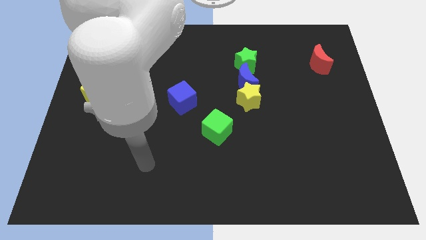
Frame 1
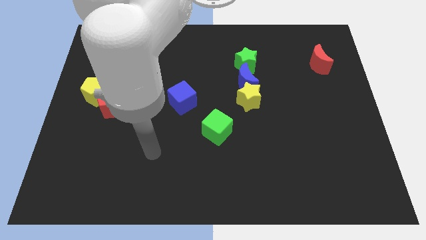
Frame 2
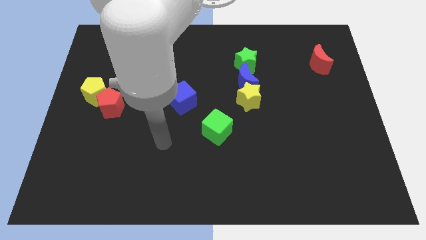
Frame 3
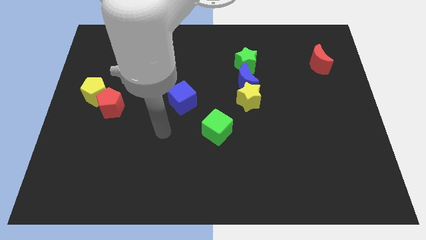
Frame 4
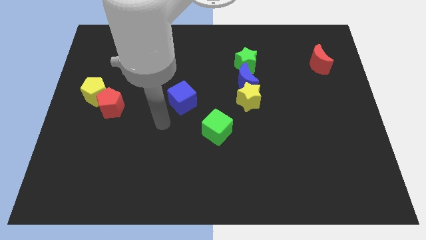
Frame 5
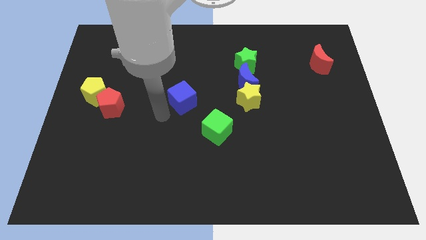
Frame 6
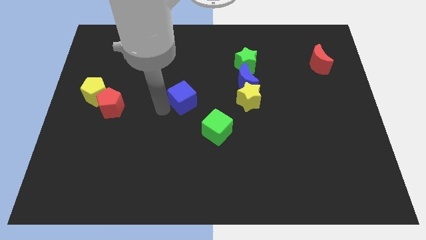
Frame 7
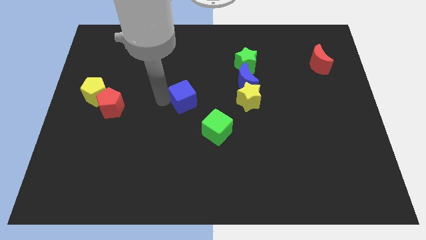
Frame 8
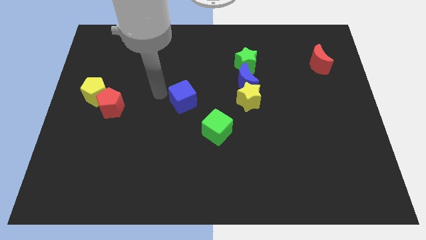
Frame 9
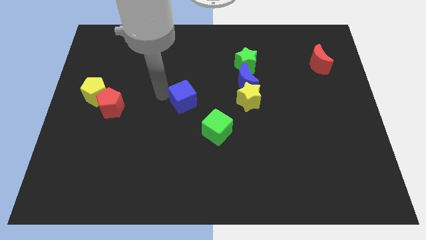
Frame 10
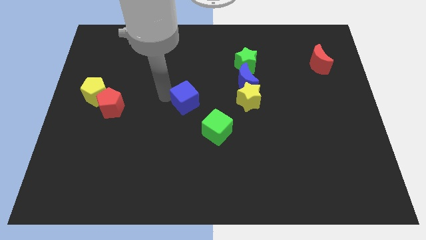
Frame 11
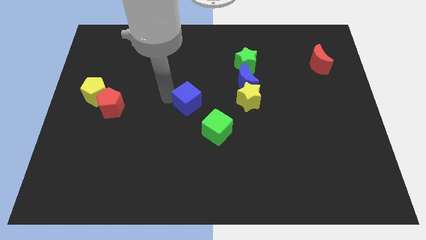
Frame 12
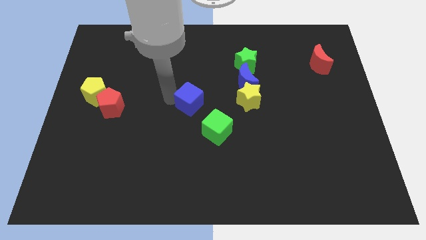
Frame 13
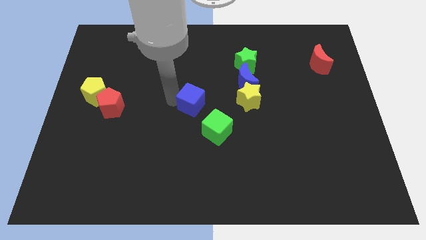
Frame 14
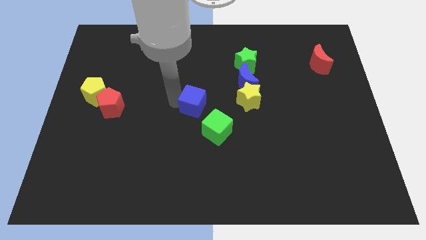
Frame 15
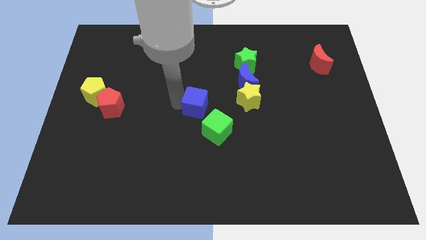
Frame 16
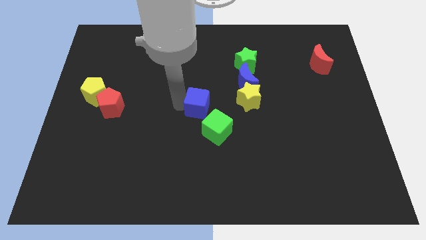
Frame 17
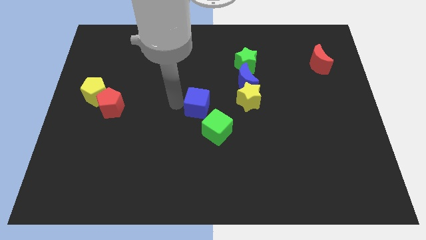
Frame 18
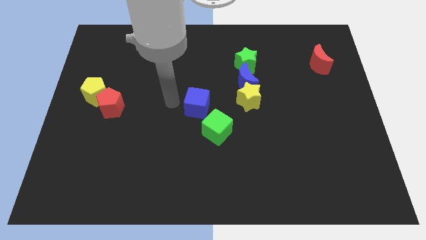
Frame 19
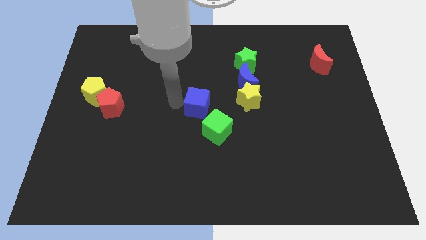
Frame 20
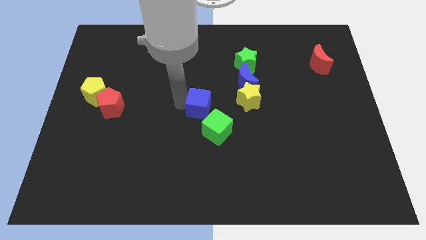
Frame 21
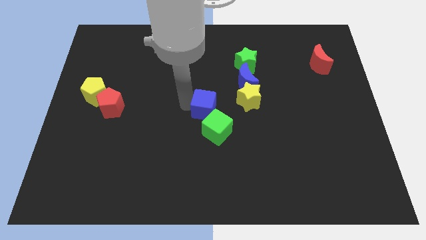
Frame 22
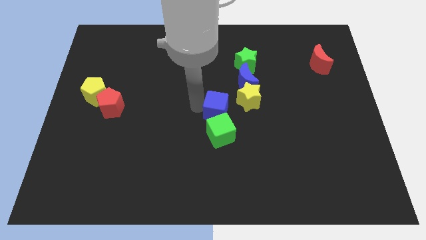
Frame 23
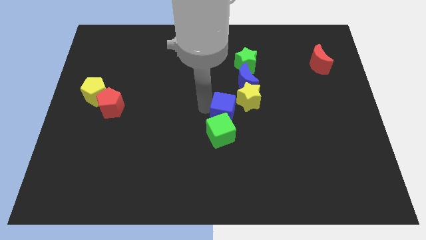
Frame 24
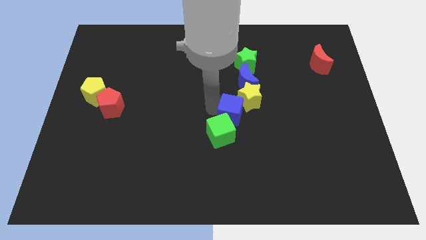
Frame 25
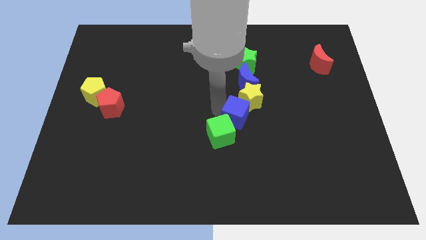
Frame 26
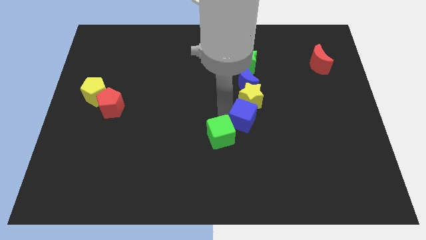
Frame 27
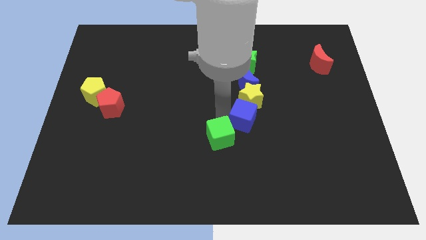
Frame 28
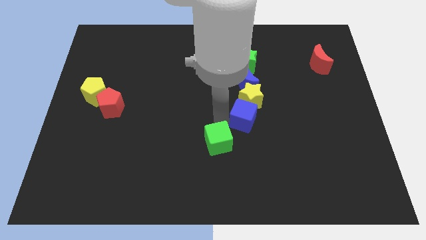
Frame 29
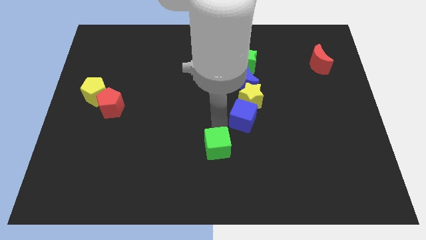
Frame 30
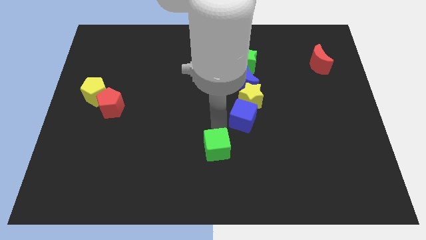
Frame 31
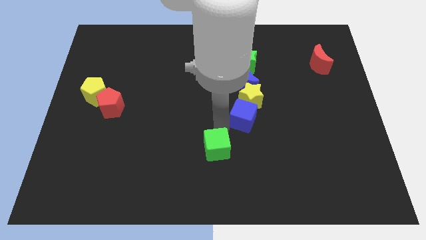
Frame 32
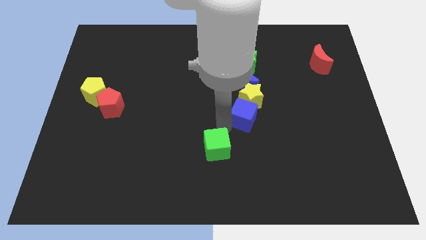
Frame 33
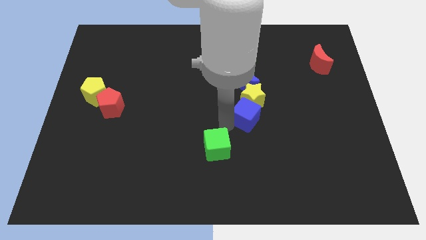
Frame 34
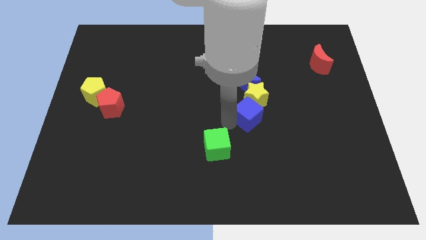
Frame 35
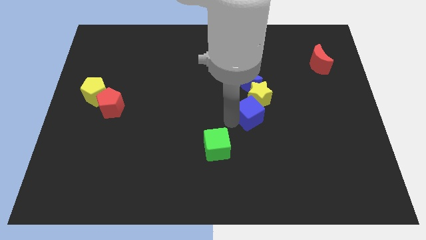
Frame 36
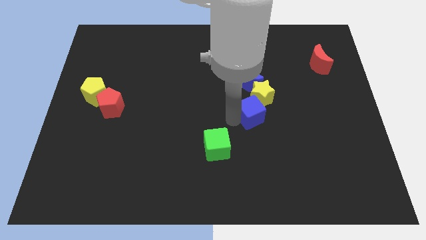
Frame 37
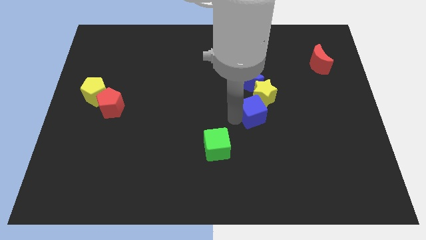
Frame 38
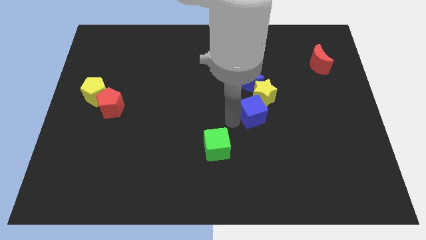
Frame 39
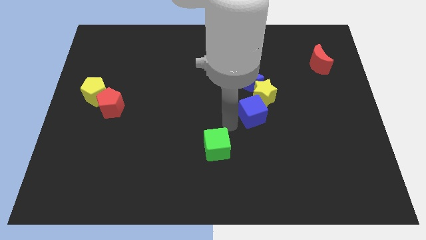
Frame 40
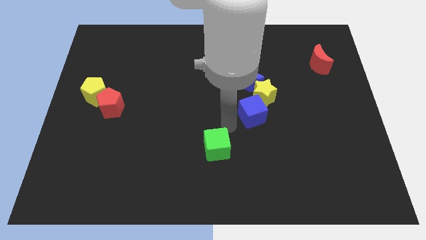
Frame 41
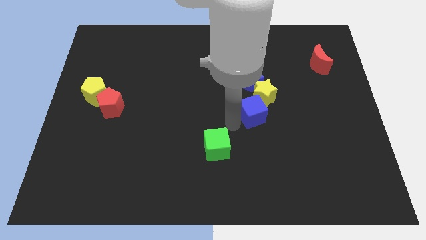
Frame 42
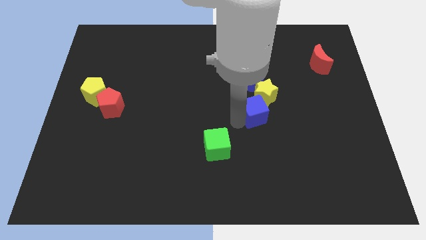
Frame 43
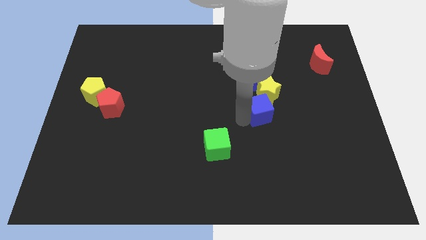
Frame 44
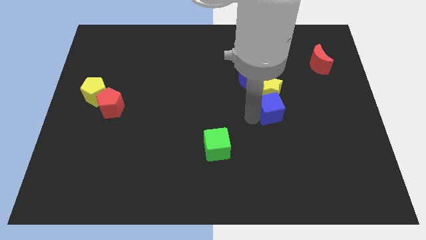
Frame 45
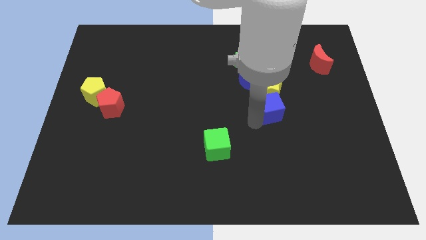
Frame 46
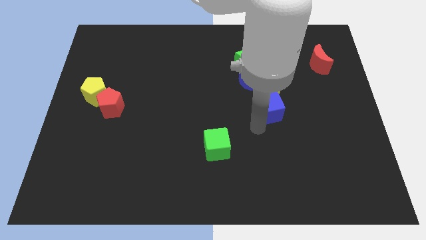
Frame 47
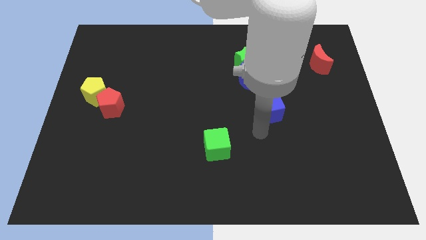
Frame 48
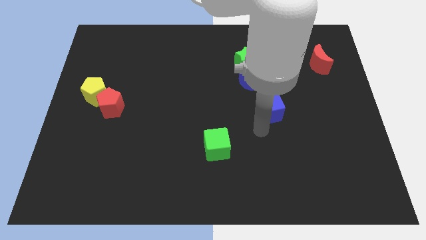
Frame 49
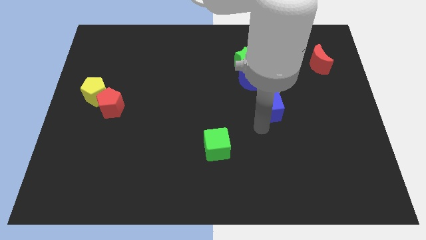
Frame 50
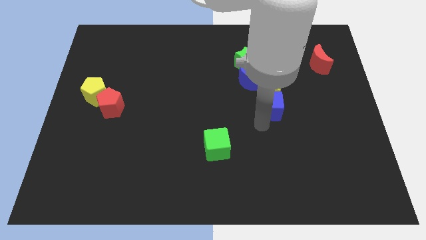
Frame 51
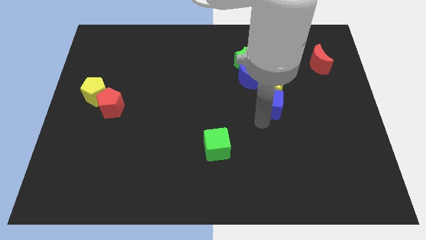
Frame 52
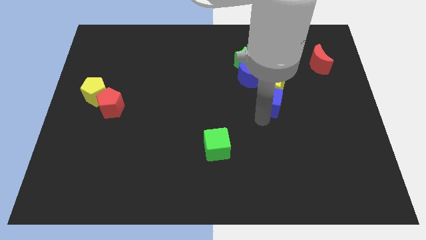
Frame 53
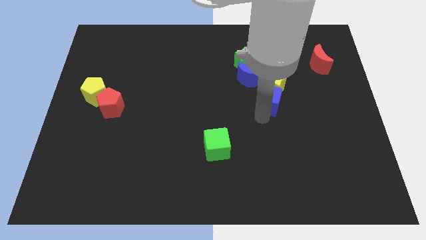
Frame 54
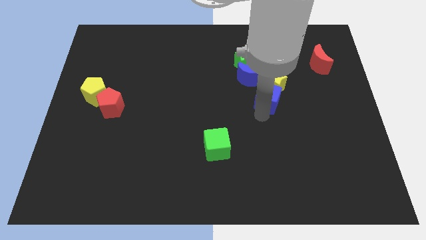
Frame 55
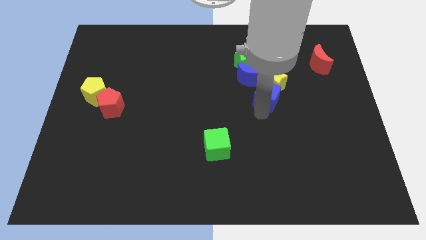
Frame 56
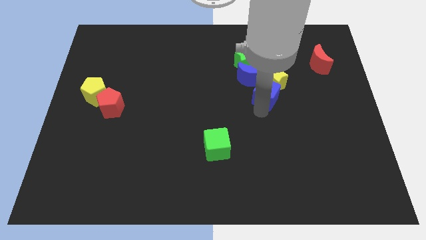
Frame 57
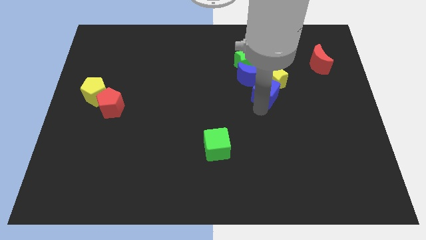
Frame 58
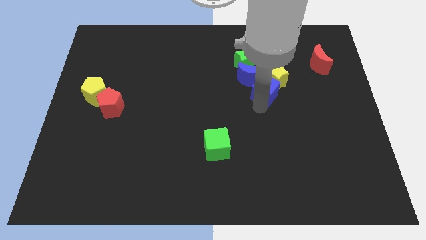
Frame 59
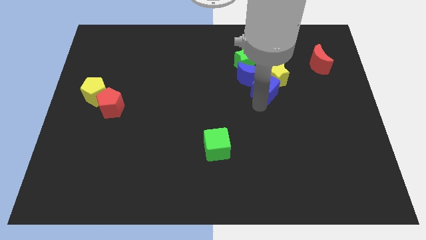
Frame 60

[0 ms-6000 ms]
slide the blue cube to the right side of the blue moon
